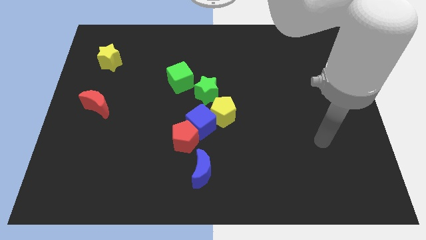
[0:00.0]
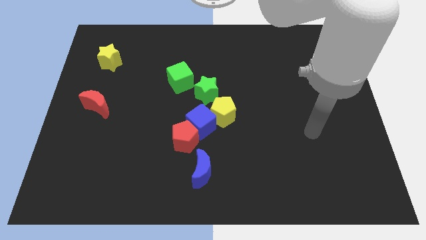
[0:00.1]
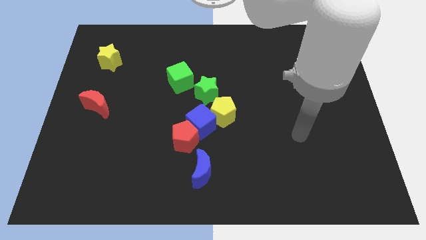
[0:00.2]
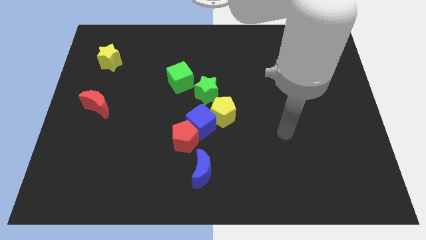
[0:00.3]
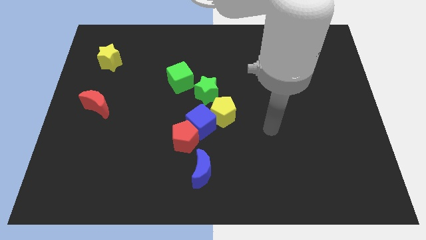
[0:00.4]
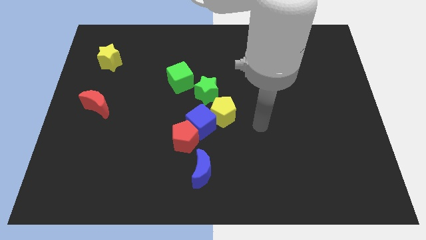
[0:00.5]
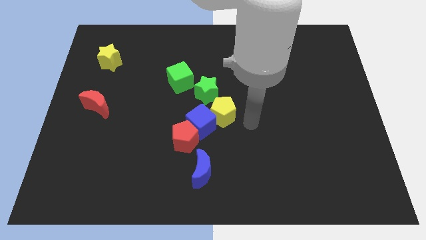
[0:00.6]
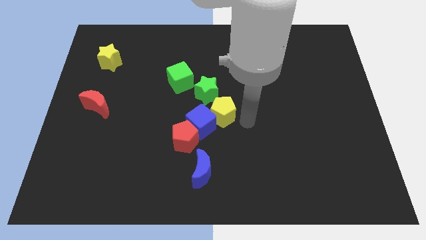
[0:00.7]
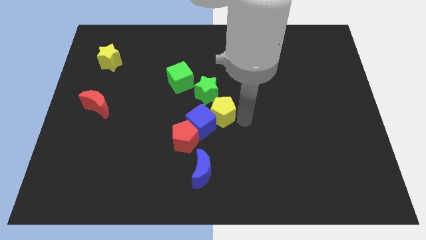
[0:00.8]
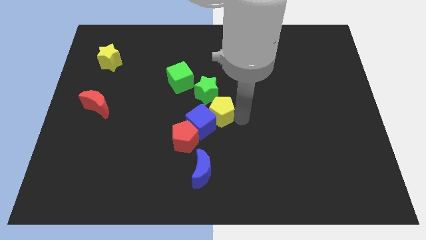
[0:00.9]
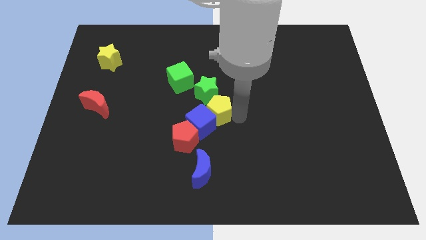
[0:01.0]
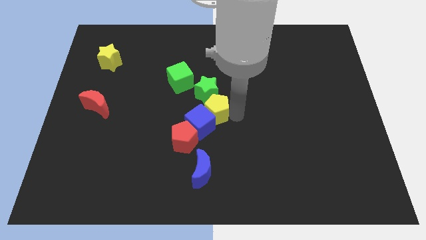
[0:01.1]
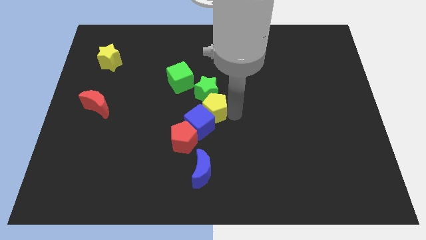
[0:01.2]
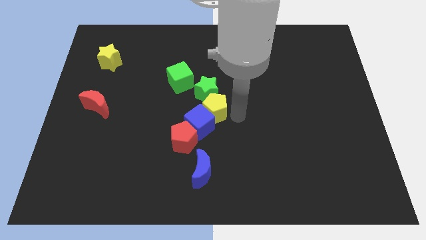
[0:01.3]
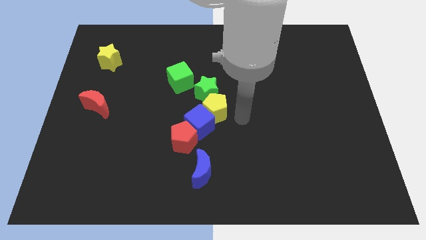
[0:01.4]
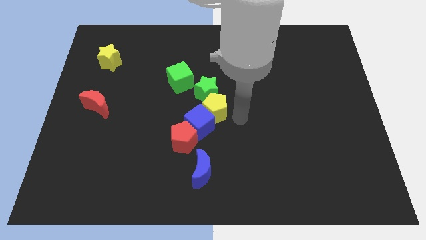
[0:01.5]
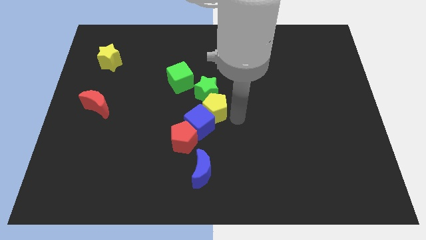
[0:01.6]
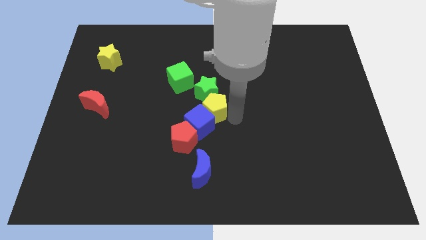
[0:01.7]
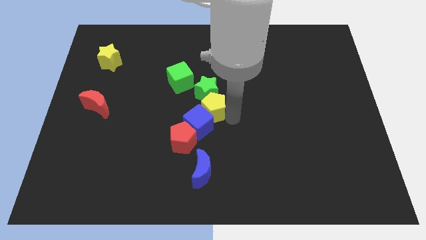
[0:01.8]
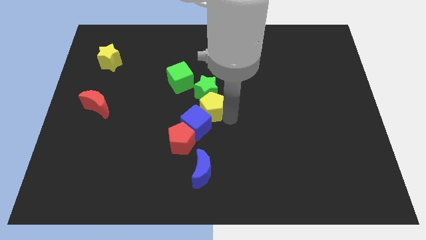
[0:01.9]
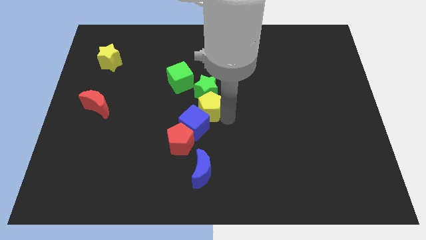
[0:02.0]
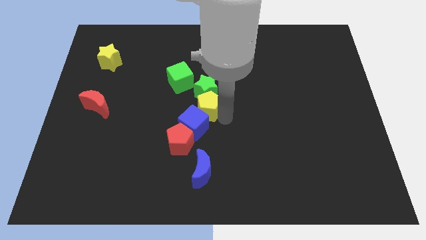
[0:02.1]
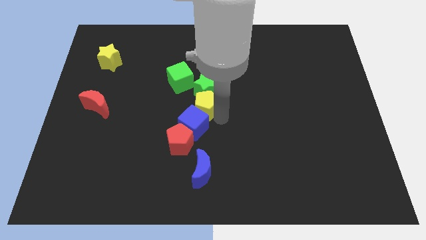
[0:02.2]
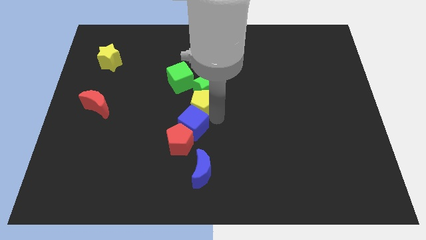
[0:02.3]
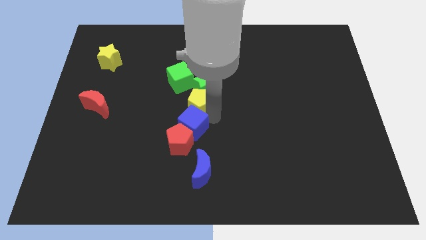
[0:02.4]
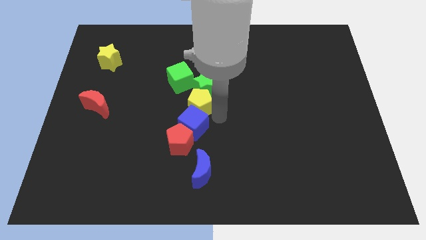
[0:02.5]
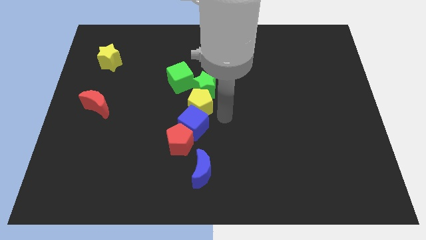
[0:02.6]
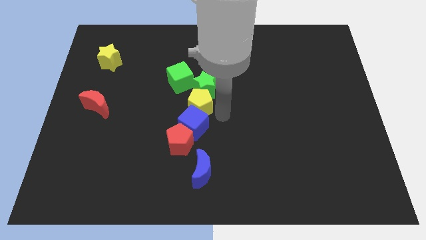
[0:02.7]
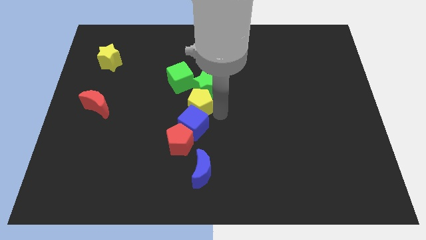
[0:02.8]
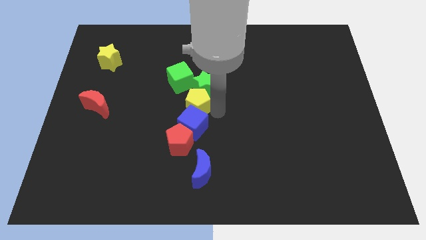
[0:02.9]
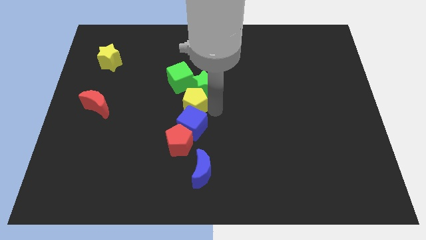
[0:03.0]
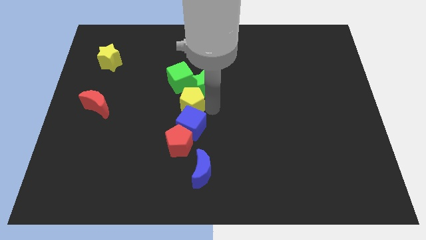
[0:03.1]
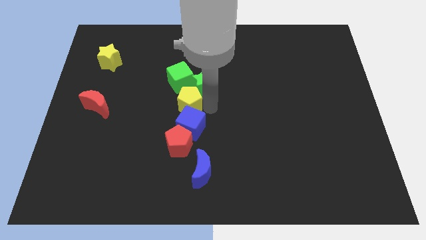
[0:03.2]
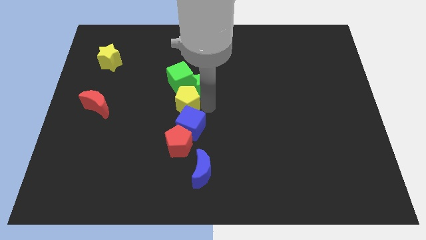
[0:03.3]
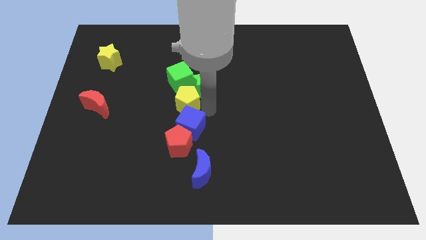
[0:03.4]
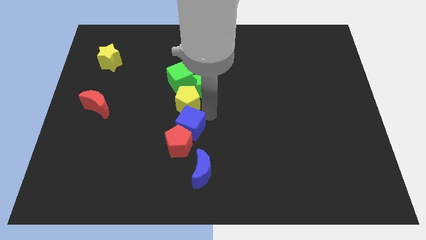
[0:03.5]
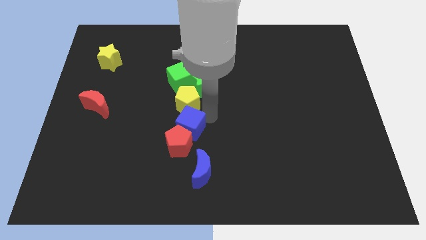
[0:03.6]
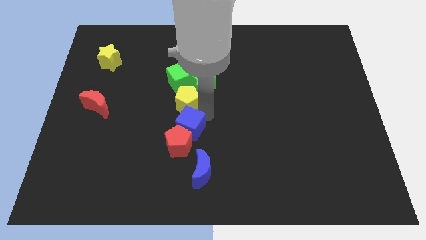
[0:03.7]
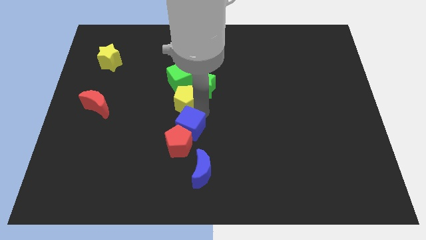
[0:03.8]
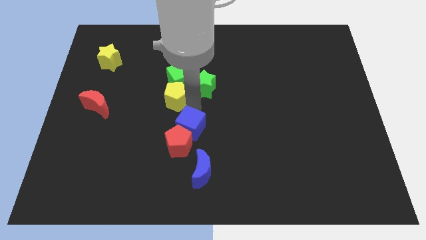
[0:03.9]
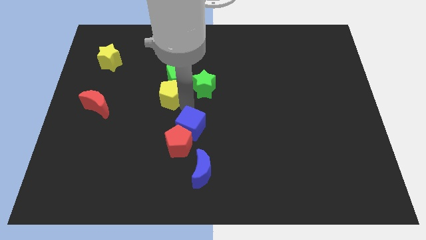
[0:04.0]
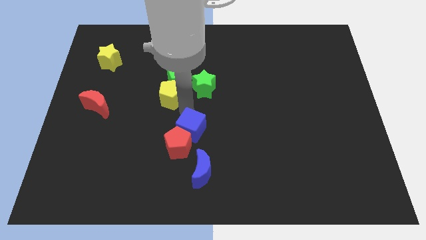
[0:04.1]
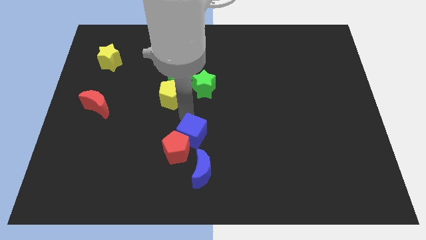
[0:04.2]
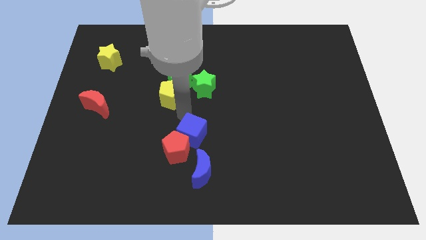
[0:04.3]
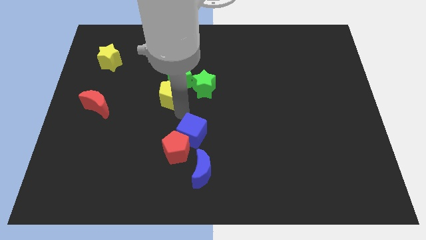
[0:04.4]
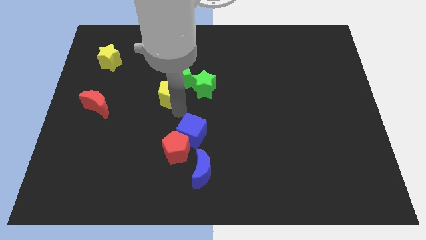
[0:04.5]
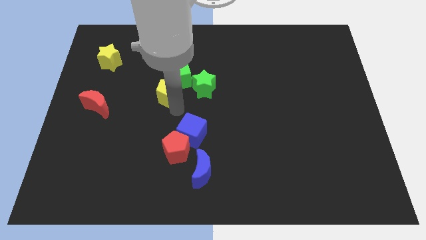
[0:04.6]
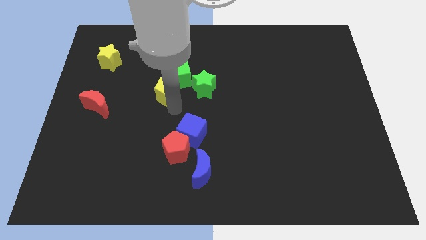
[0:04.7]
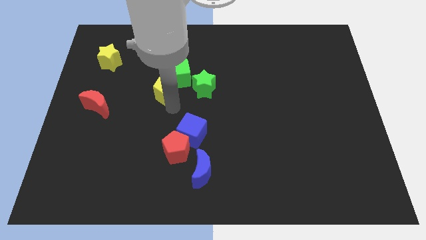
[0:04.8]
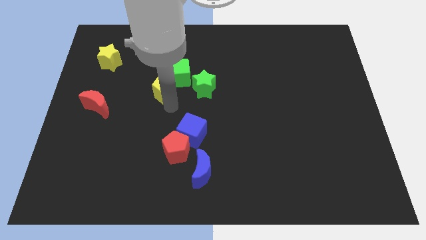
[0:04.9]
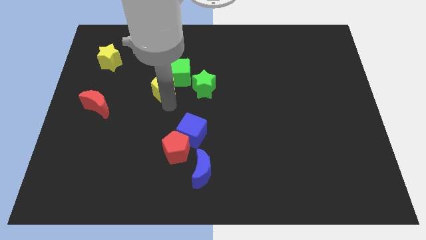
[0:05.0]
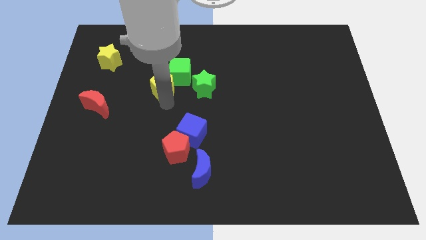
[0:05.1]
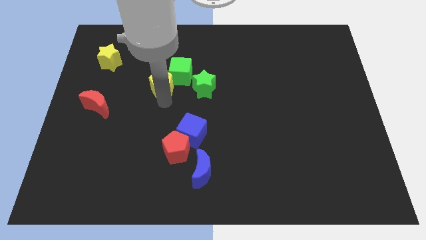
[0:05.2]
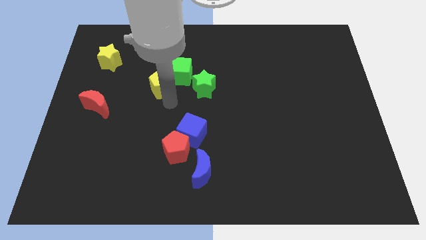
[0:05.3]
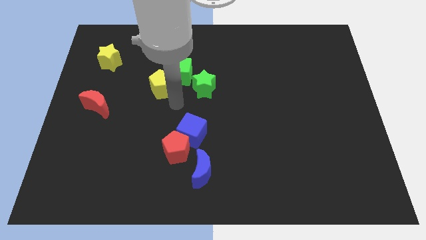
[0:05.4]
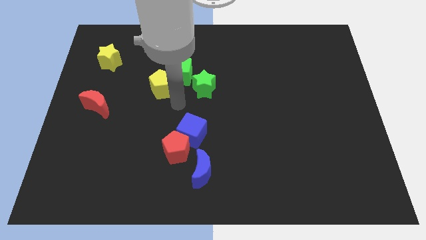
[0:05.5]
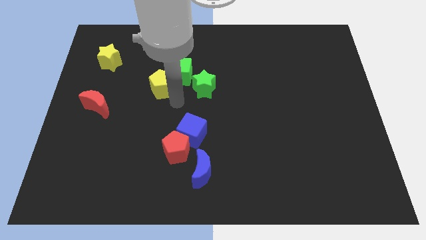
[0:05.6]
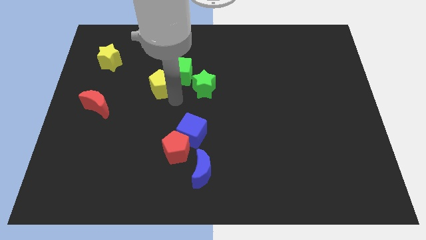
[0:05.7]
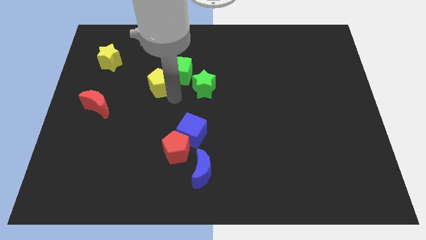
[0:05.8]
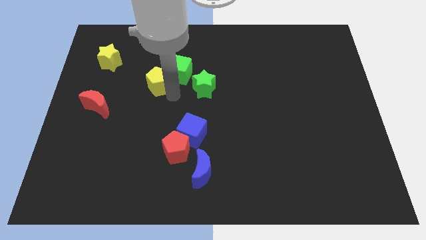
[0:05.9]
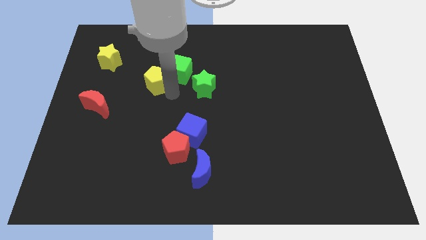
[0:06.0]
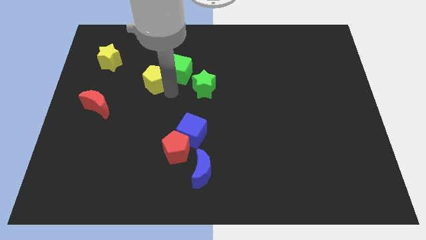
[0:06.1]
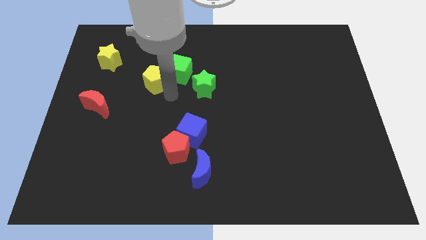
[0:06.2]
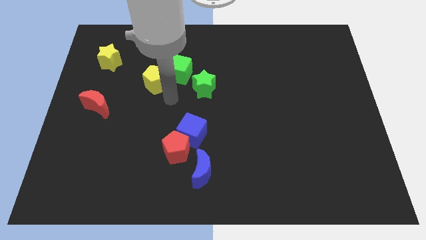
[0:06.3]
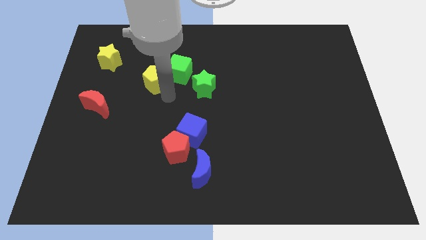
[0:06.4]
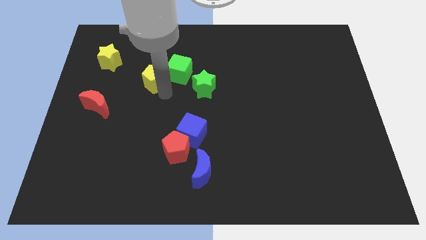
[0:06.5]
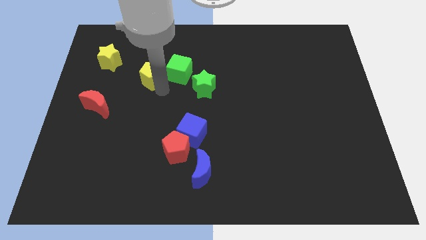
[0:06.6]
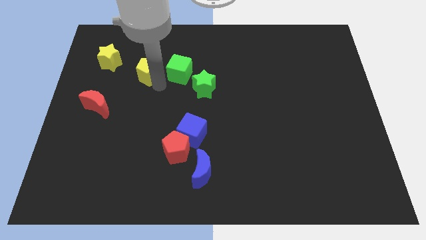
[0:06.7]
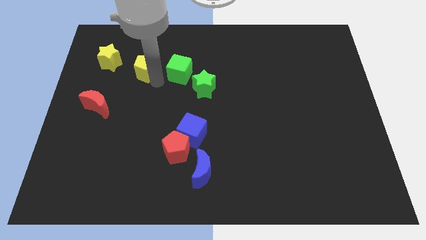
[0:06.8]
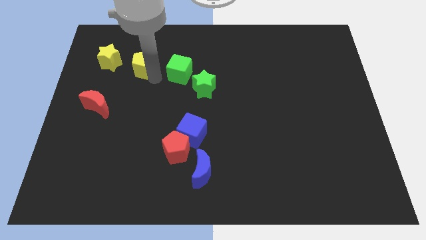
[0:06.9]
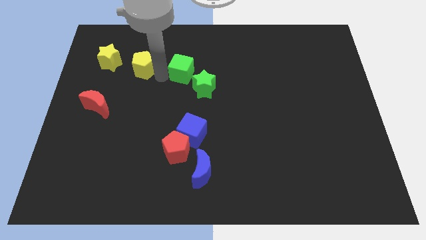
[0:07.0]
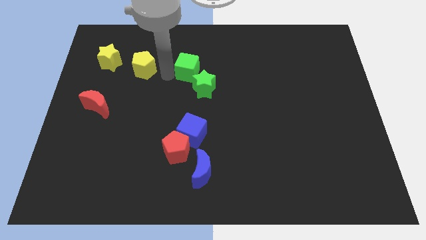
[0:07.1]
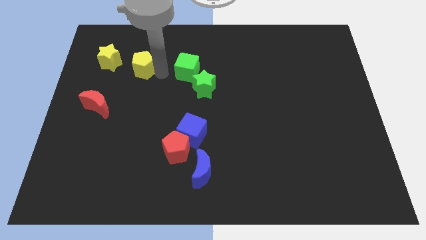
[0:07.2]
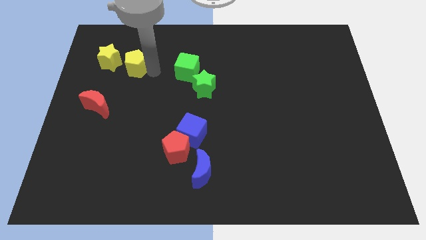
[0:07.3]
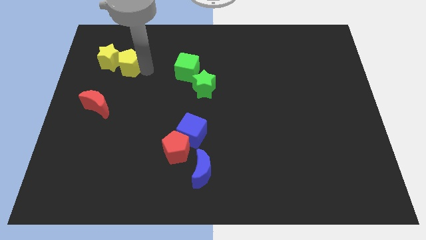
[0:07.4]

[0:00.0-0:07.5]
put the yellow pentagon close to the yellow star

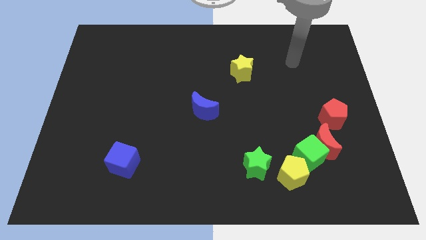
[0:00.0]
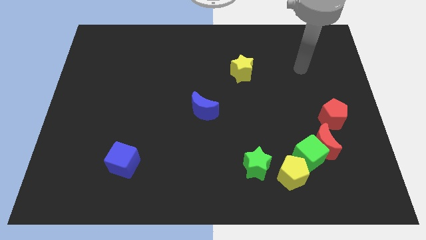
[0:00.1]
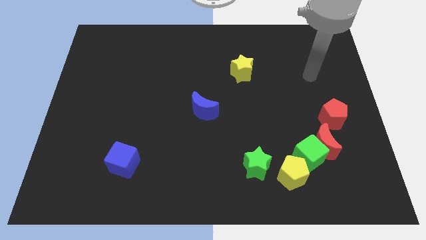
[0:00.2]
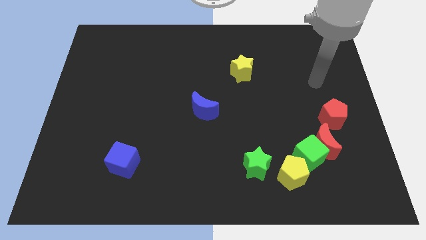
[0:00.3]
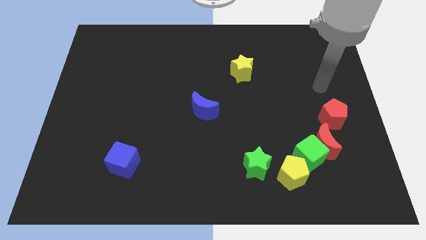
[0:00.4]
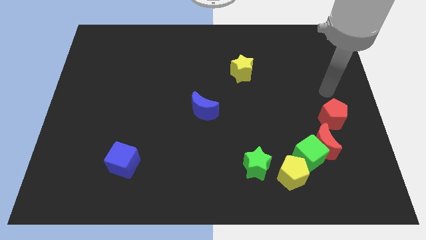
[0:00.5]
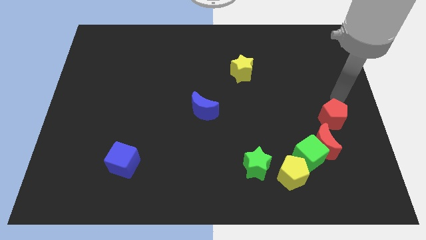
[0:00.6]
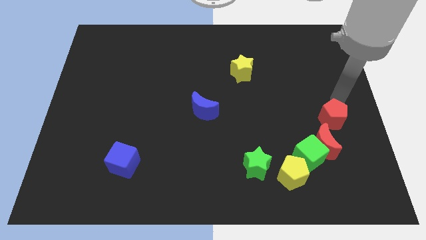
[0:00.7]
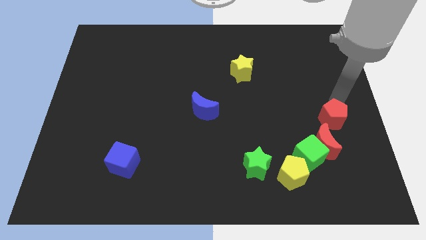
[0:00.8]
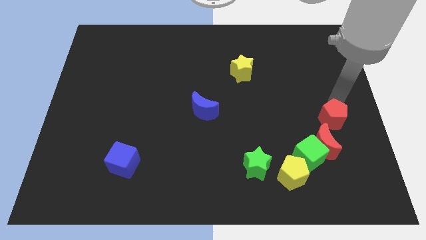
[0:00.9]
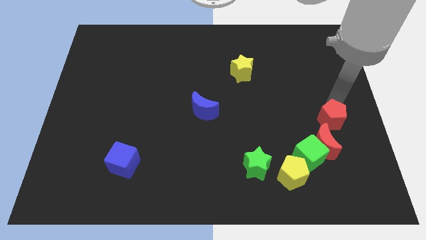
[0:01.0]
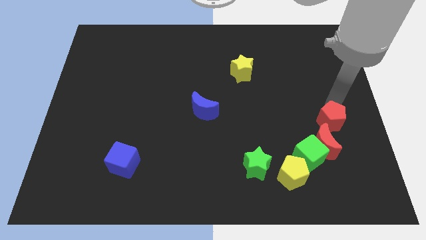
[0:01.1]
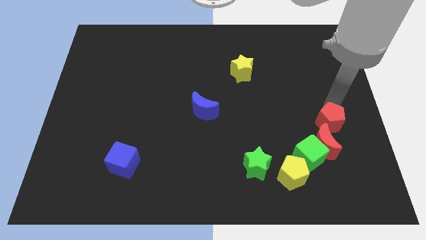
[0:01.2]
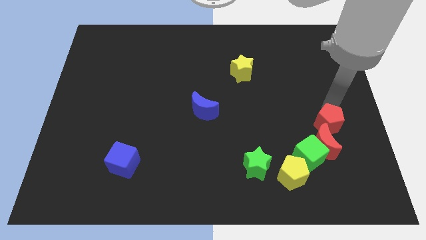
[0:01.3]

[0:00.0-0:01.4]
slide the red pentagon next to the red moon
